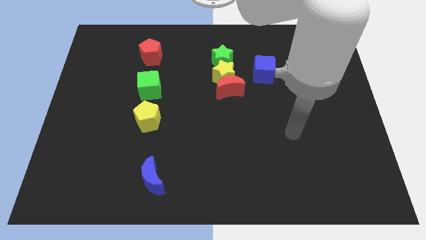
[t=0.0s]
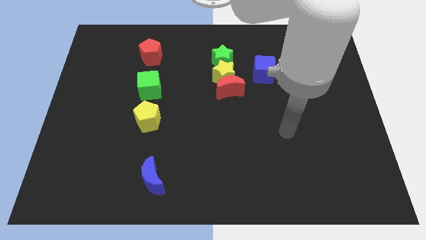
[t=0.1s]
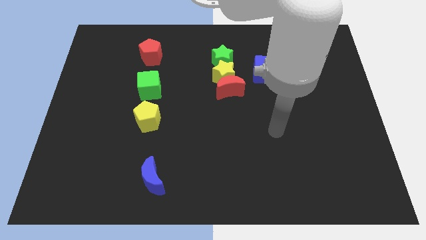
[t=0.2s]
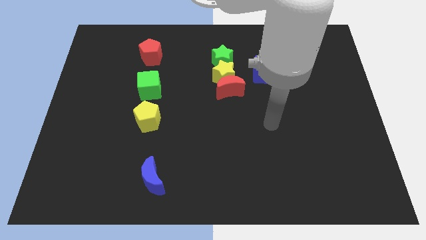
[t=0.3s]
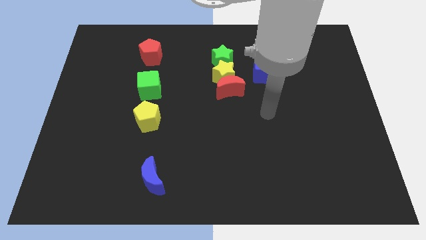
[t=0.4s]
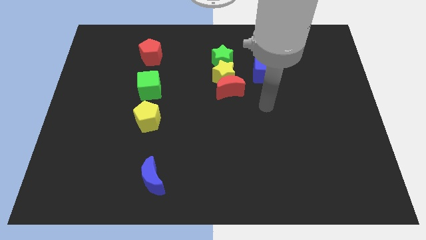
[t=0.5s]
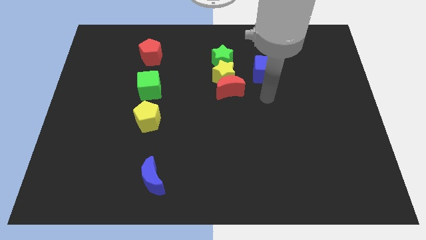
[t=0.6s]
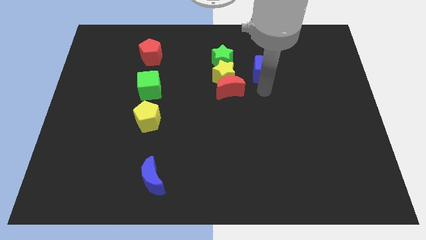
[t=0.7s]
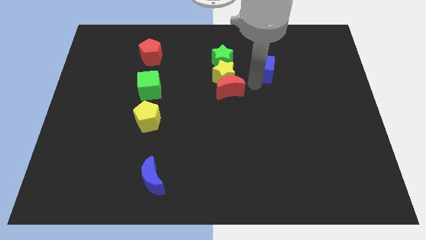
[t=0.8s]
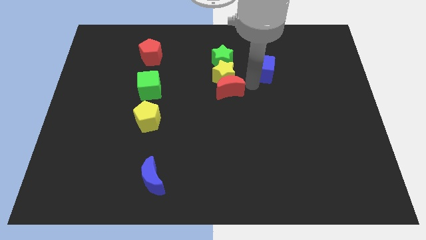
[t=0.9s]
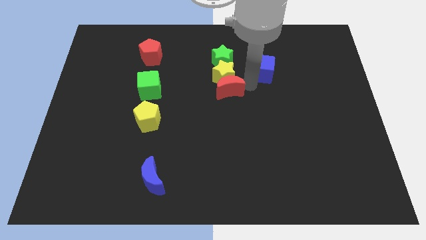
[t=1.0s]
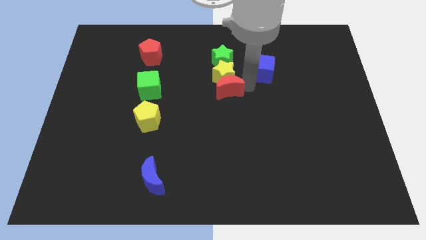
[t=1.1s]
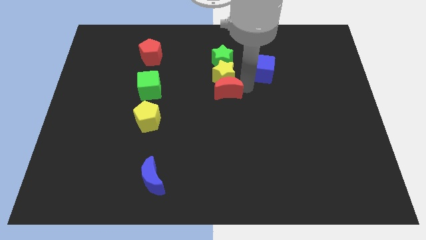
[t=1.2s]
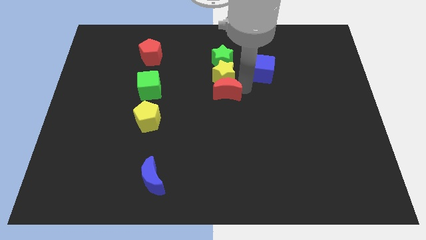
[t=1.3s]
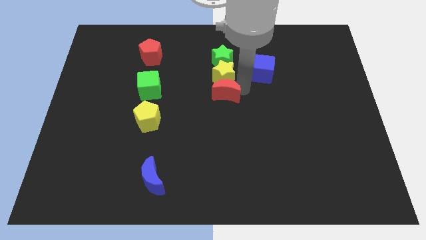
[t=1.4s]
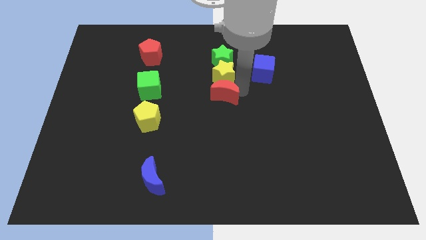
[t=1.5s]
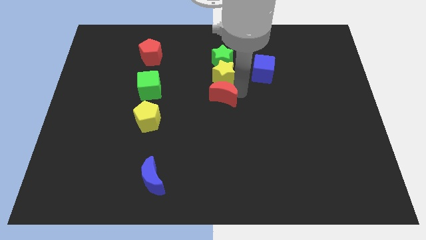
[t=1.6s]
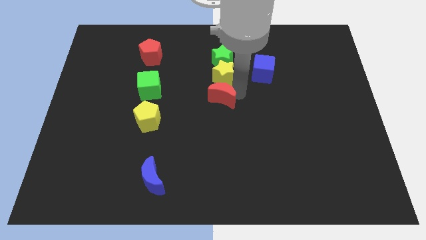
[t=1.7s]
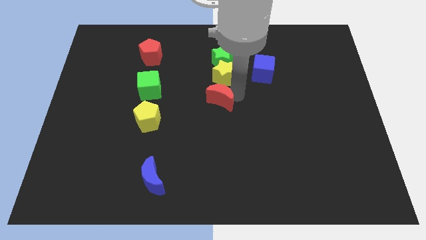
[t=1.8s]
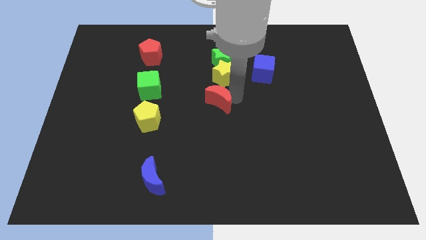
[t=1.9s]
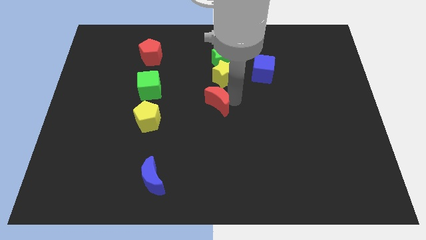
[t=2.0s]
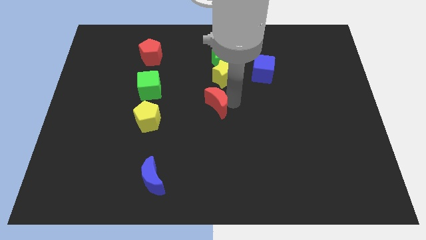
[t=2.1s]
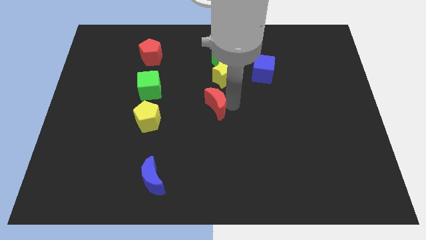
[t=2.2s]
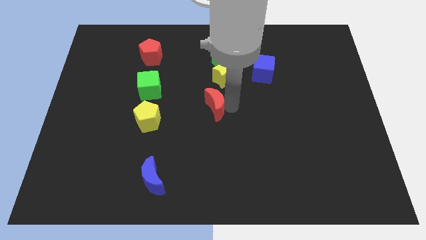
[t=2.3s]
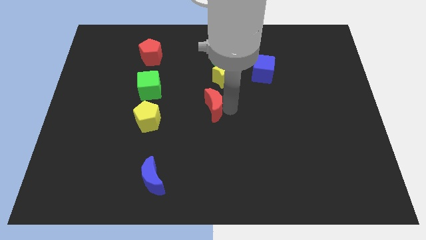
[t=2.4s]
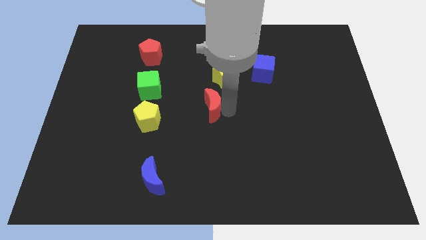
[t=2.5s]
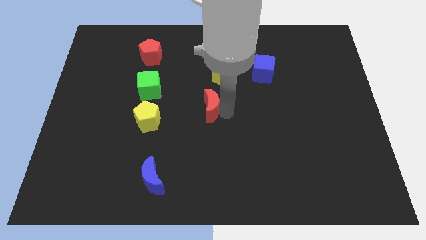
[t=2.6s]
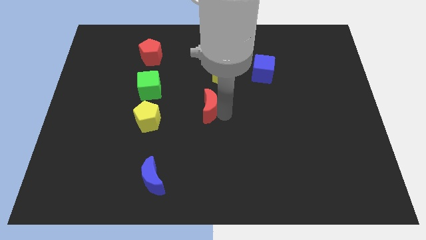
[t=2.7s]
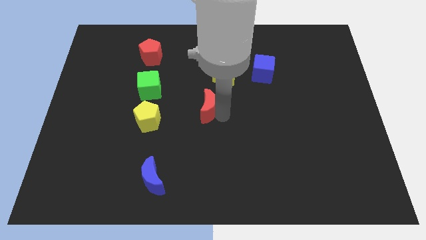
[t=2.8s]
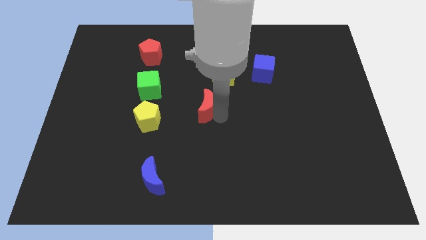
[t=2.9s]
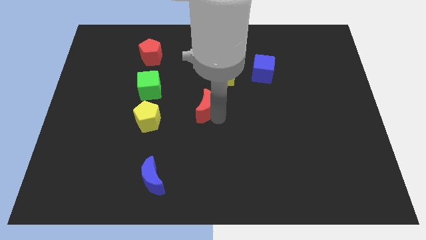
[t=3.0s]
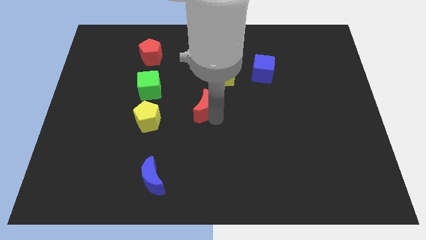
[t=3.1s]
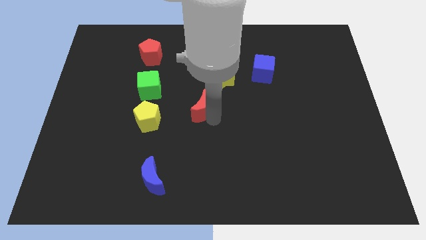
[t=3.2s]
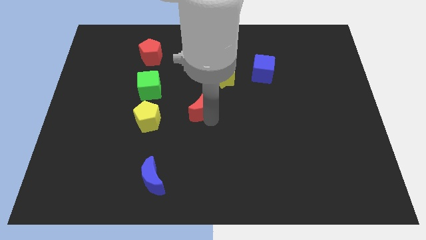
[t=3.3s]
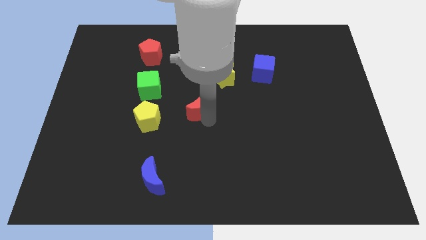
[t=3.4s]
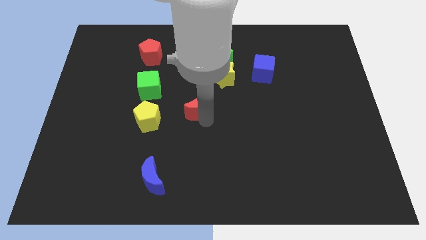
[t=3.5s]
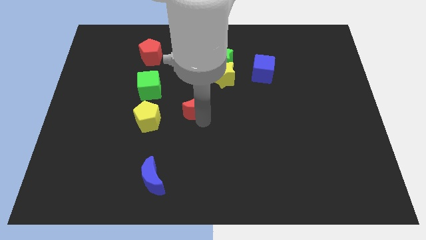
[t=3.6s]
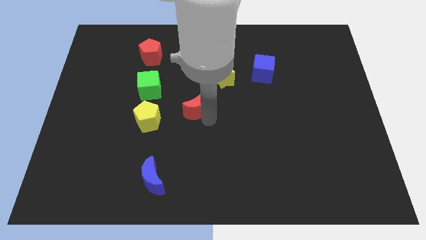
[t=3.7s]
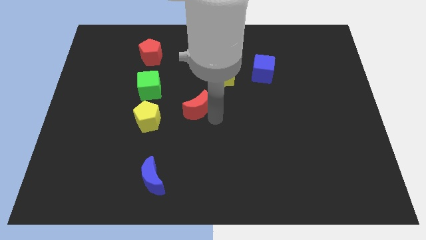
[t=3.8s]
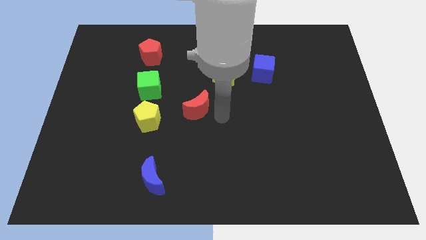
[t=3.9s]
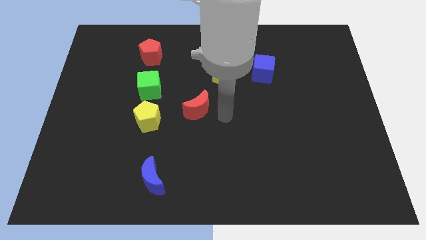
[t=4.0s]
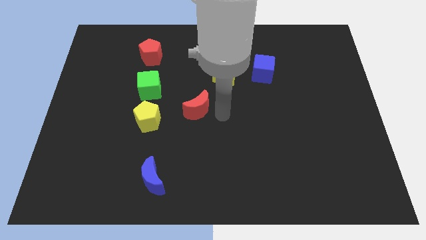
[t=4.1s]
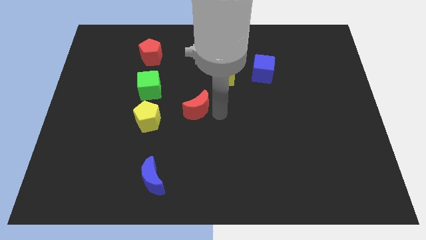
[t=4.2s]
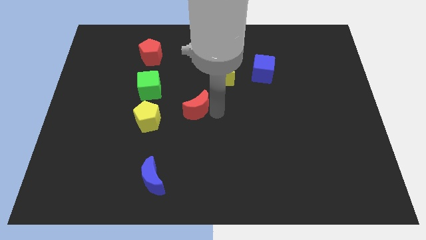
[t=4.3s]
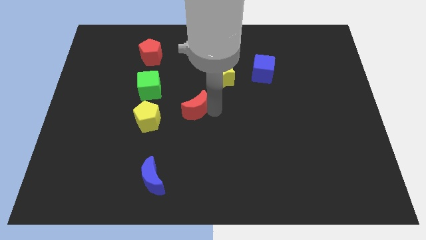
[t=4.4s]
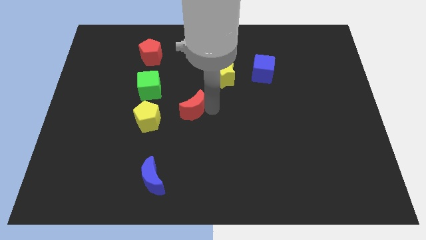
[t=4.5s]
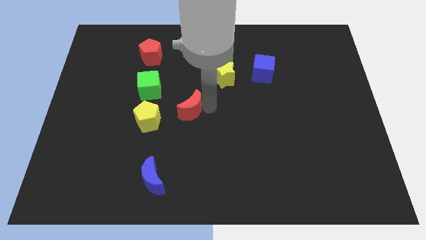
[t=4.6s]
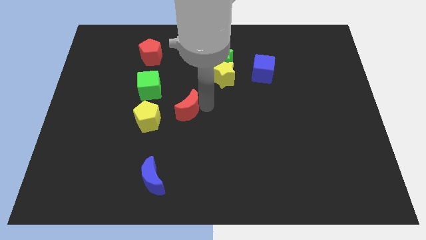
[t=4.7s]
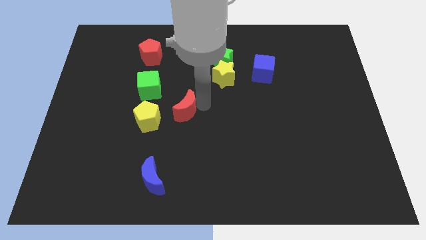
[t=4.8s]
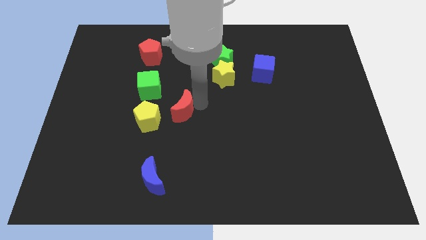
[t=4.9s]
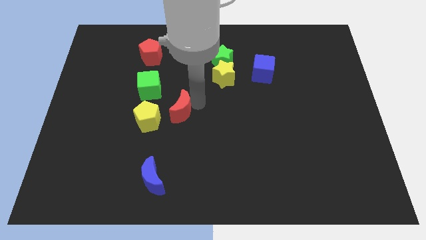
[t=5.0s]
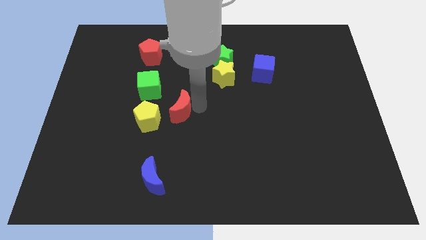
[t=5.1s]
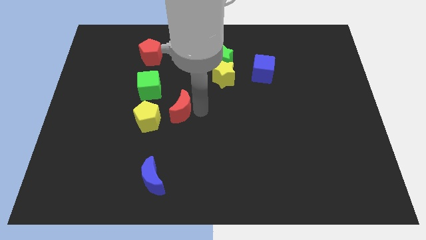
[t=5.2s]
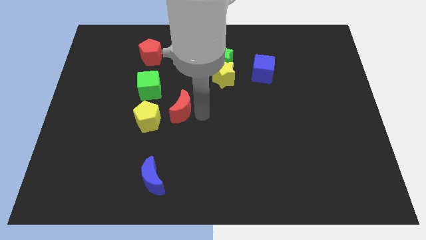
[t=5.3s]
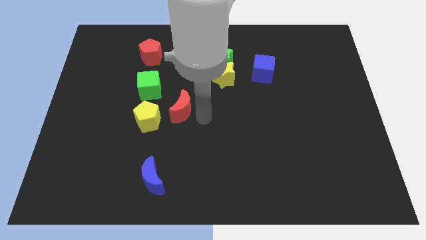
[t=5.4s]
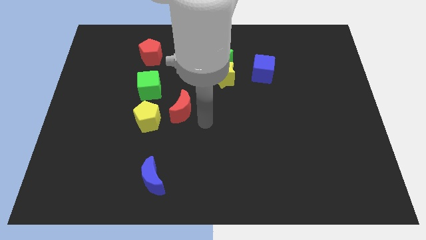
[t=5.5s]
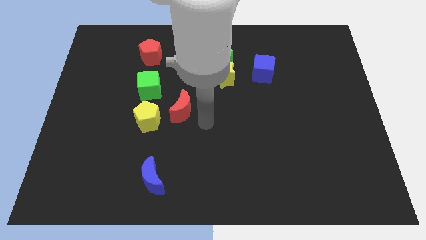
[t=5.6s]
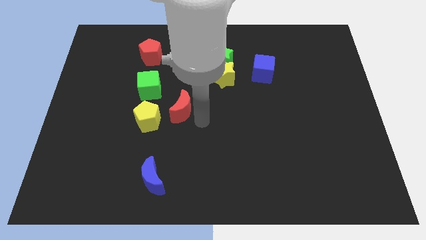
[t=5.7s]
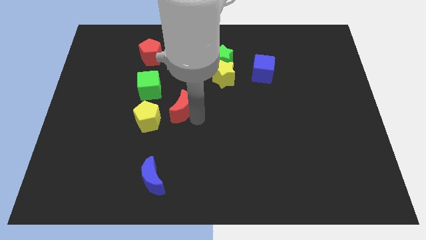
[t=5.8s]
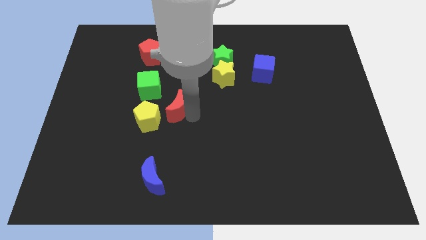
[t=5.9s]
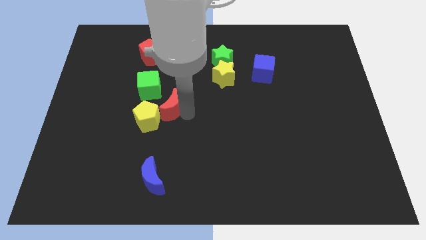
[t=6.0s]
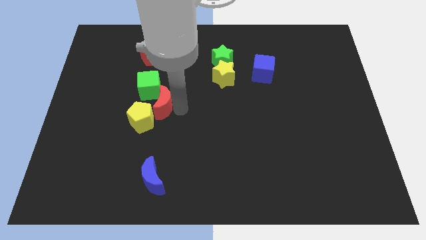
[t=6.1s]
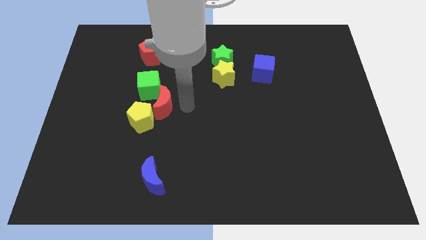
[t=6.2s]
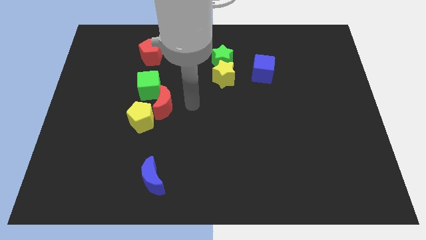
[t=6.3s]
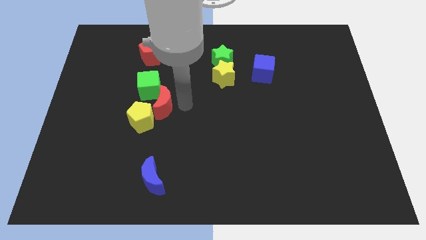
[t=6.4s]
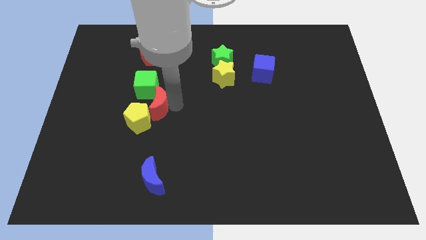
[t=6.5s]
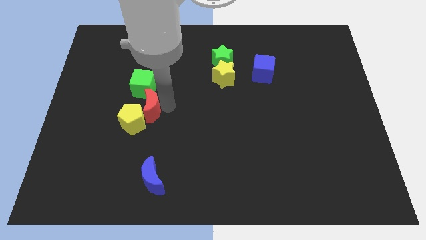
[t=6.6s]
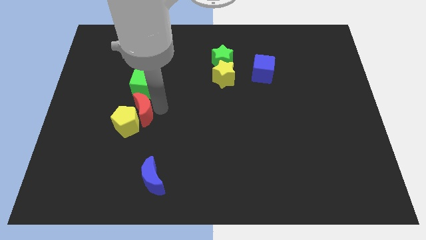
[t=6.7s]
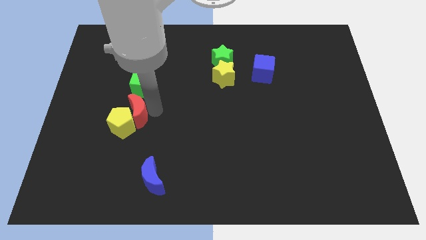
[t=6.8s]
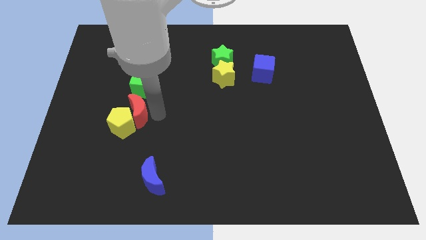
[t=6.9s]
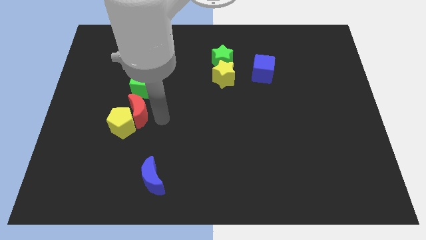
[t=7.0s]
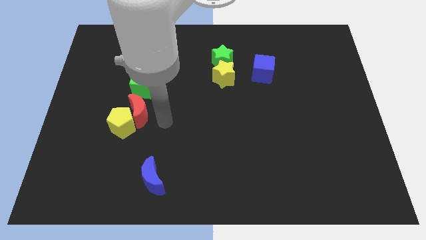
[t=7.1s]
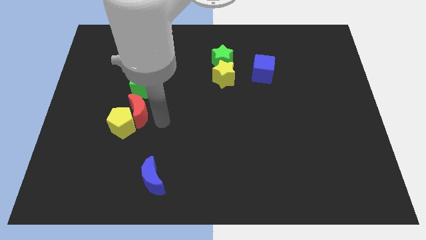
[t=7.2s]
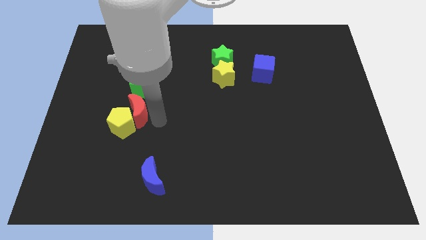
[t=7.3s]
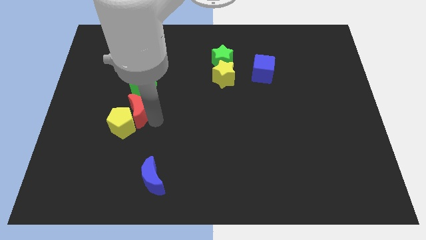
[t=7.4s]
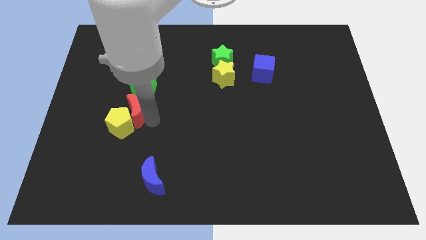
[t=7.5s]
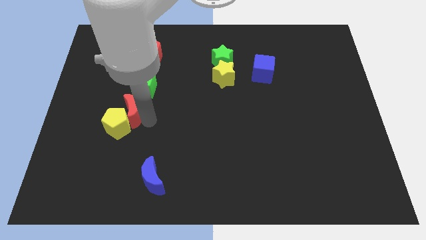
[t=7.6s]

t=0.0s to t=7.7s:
slide the red moon left

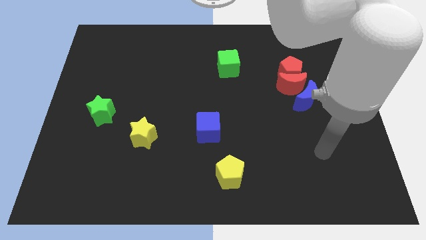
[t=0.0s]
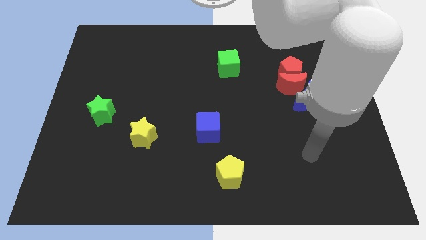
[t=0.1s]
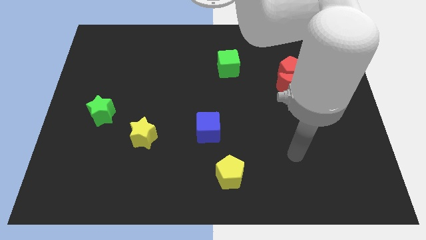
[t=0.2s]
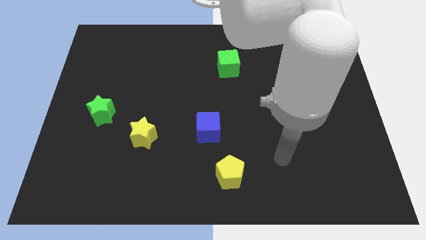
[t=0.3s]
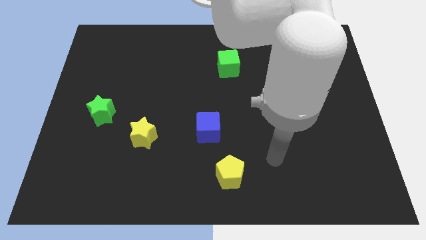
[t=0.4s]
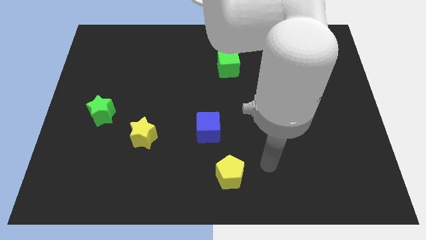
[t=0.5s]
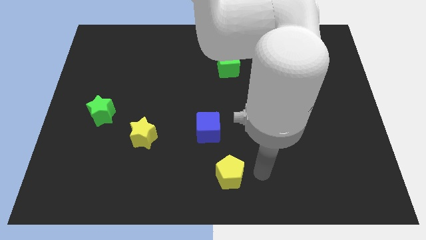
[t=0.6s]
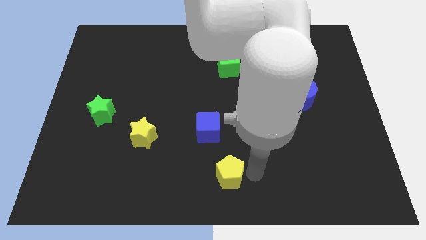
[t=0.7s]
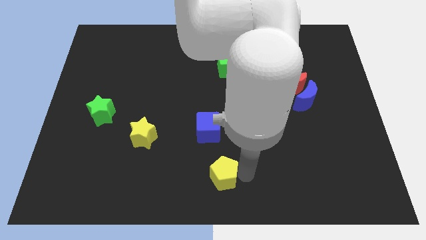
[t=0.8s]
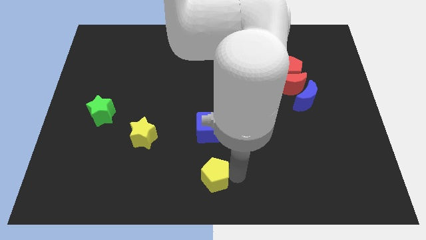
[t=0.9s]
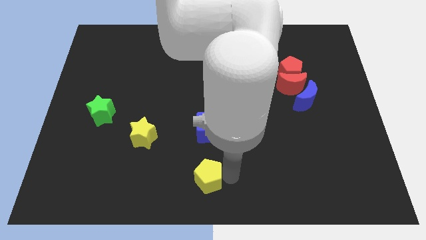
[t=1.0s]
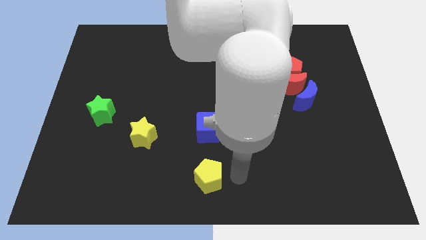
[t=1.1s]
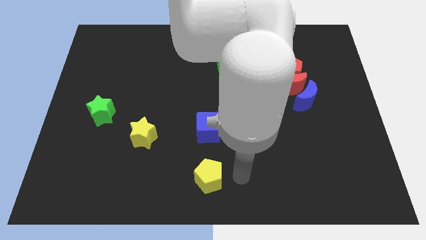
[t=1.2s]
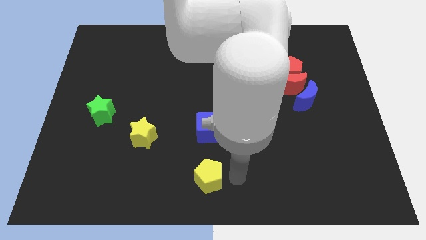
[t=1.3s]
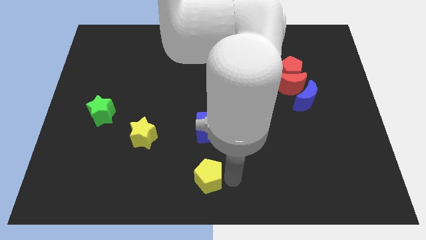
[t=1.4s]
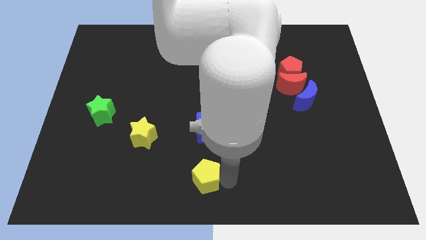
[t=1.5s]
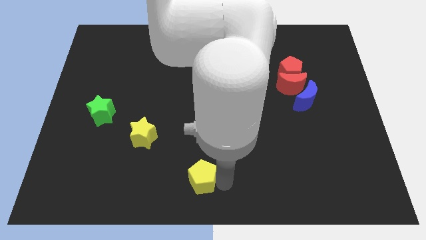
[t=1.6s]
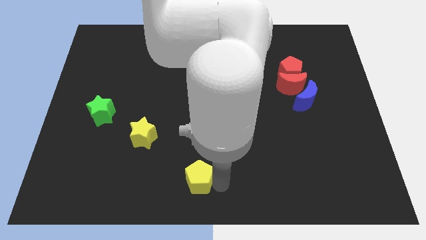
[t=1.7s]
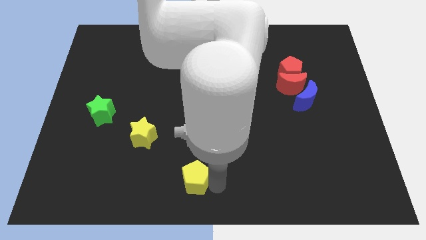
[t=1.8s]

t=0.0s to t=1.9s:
slide the yellow pentagon slightly to the left
